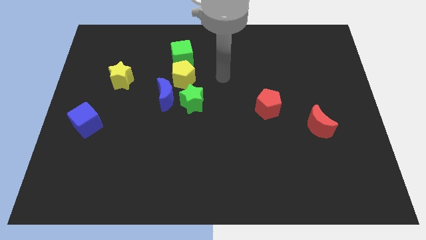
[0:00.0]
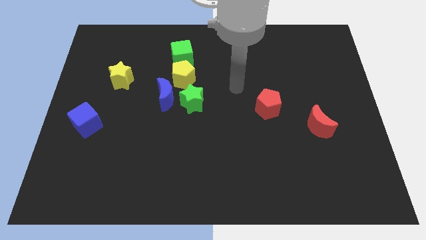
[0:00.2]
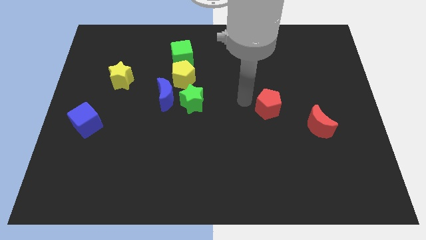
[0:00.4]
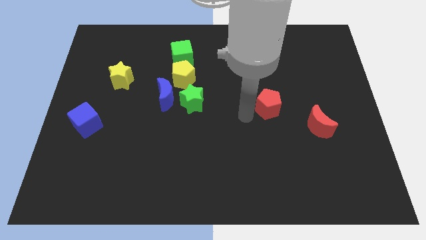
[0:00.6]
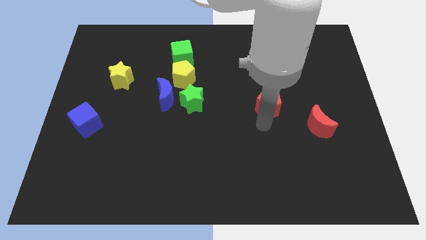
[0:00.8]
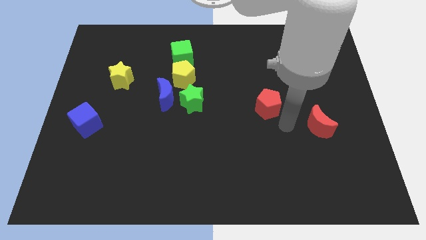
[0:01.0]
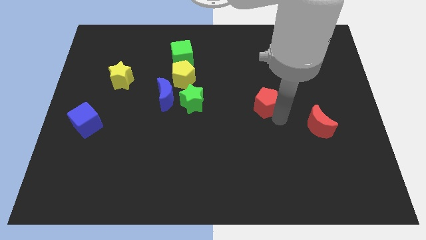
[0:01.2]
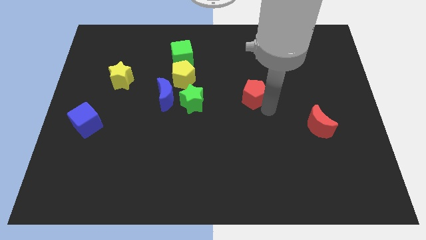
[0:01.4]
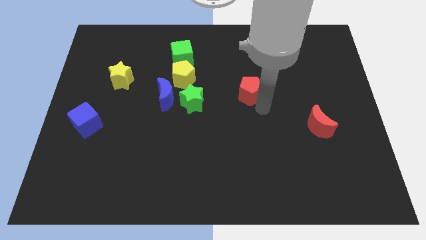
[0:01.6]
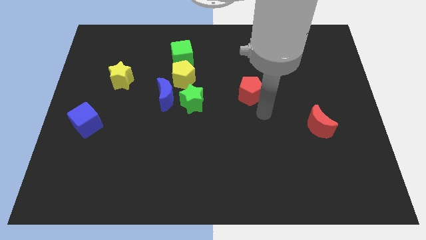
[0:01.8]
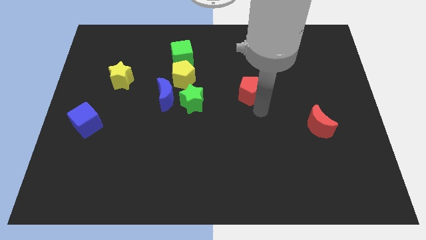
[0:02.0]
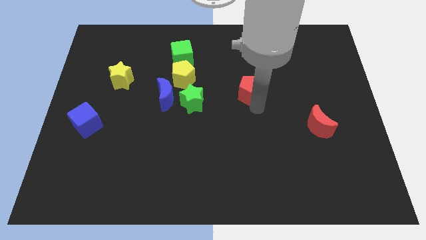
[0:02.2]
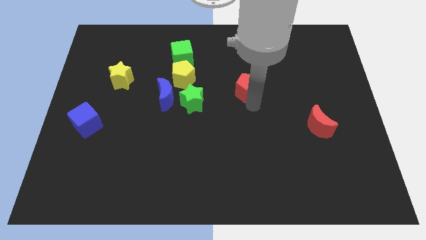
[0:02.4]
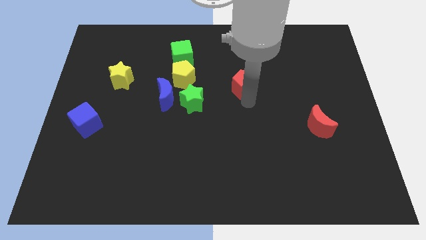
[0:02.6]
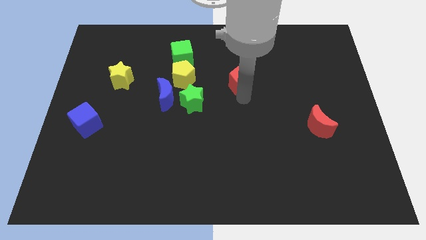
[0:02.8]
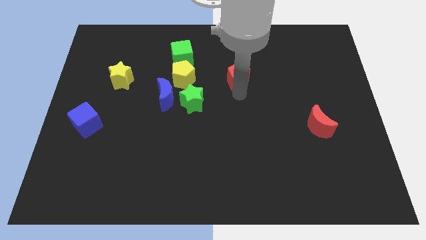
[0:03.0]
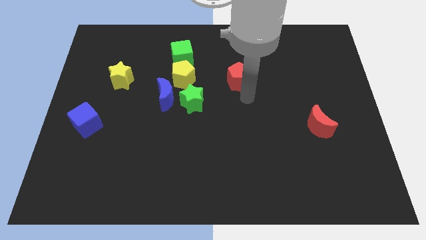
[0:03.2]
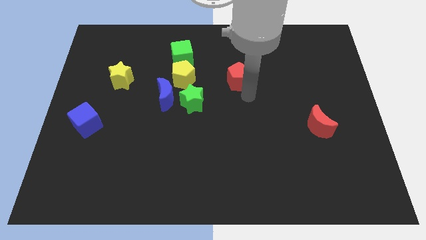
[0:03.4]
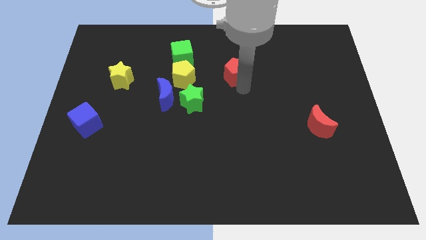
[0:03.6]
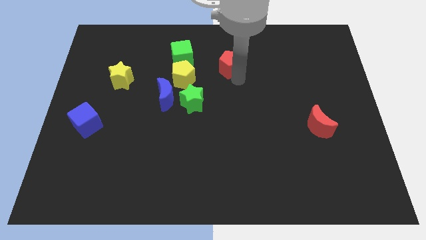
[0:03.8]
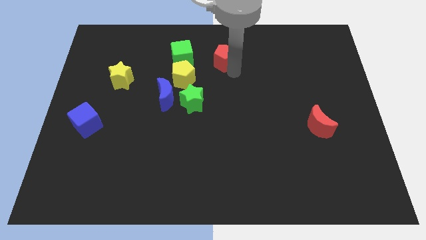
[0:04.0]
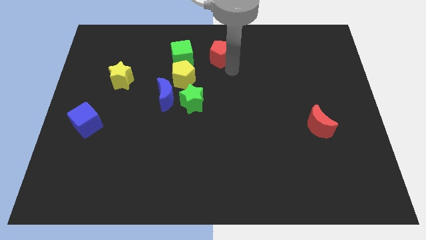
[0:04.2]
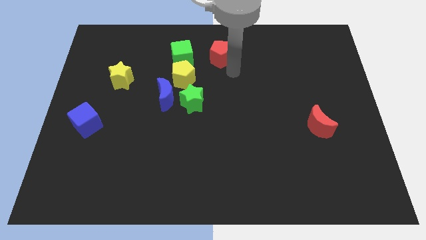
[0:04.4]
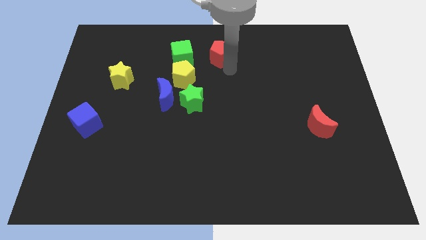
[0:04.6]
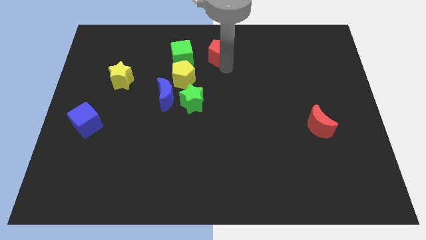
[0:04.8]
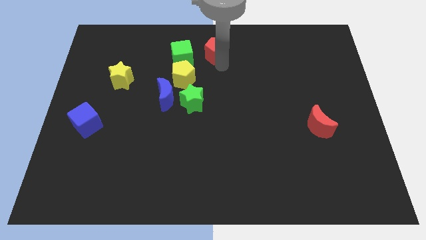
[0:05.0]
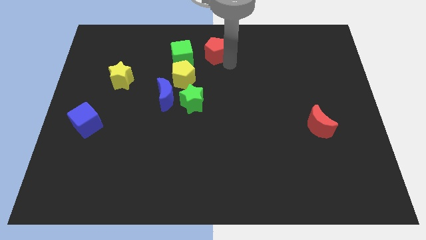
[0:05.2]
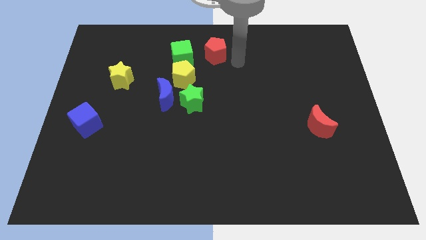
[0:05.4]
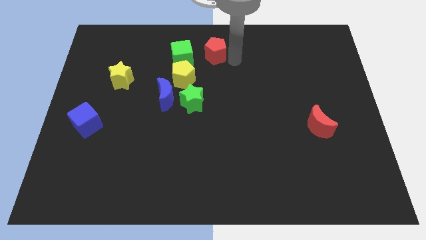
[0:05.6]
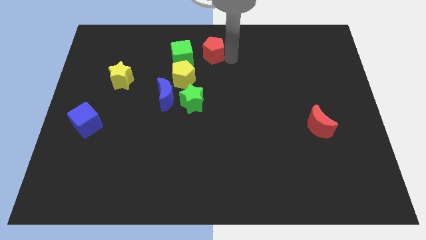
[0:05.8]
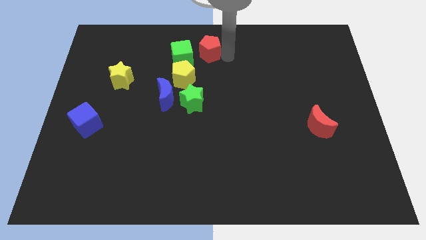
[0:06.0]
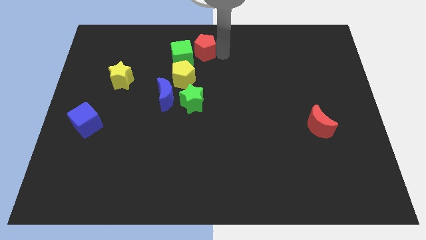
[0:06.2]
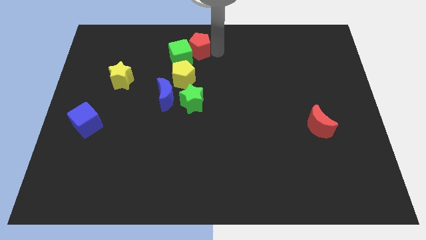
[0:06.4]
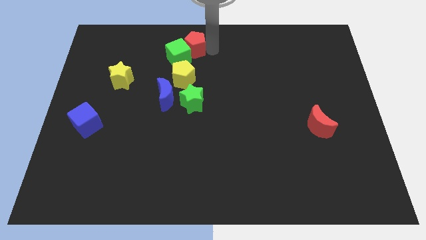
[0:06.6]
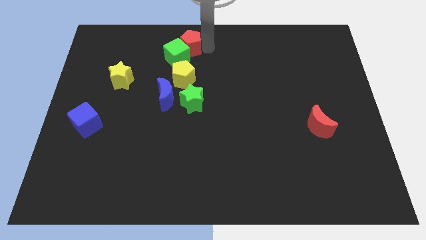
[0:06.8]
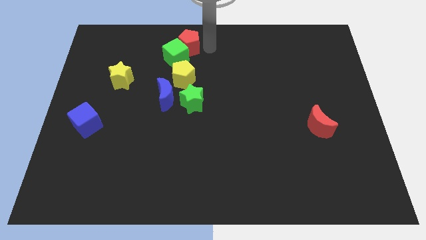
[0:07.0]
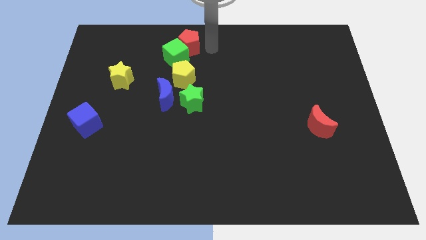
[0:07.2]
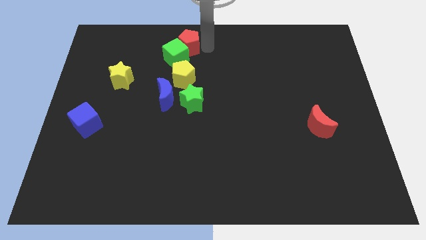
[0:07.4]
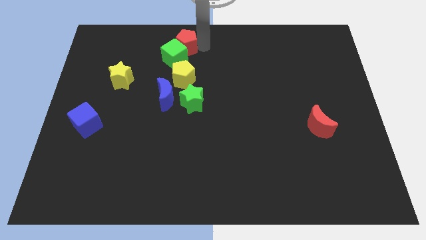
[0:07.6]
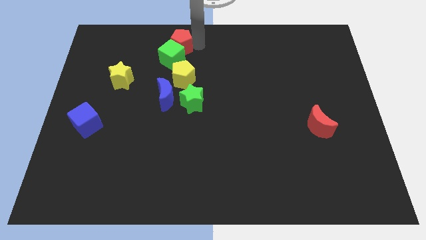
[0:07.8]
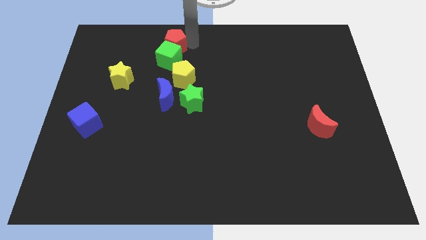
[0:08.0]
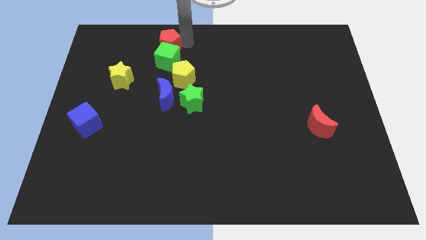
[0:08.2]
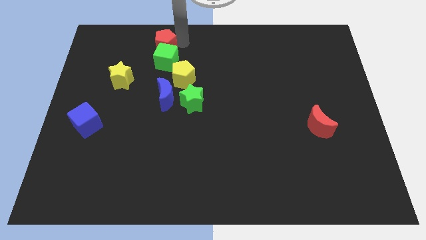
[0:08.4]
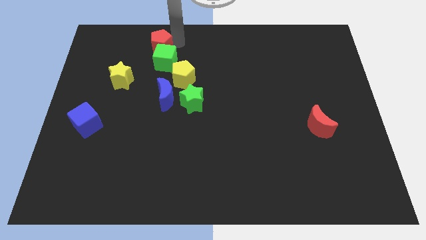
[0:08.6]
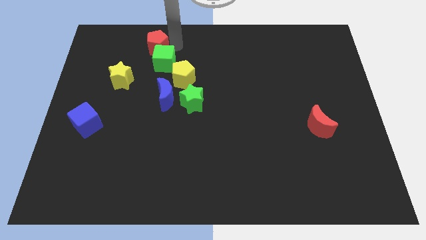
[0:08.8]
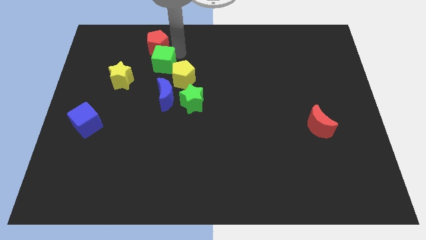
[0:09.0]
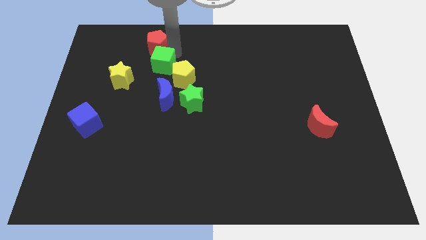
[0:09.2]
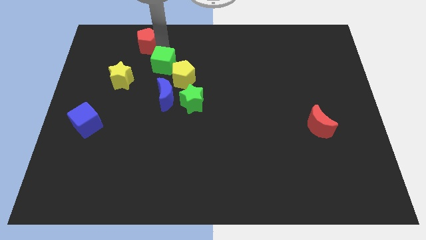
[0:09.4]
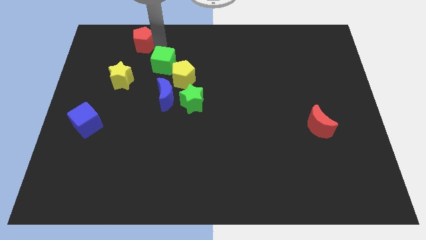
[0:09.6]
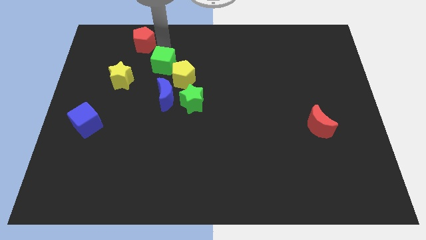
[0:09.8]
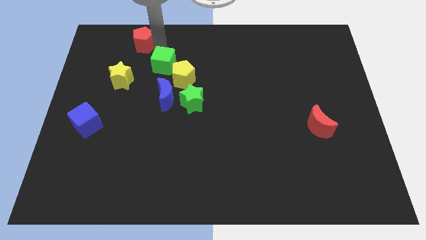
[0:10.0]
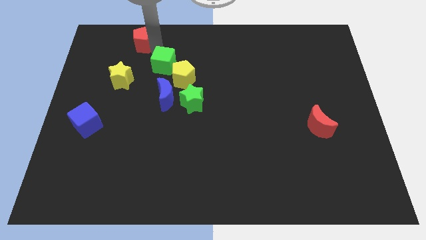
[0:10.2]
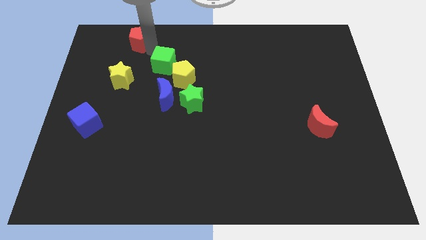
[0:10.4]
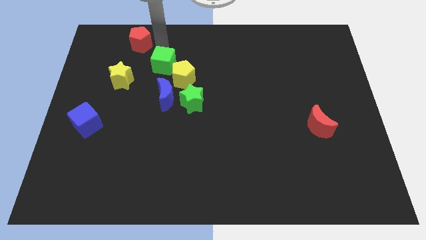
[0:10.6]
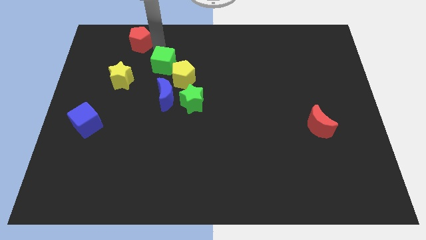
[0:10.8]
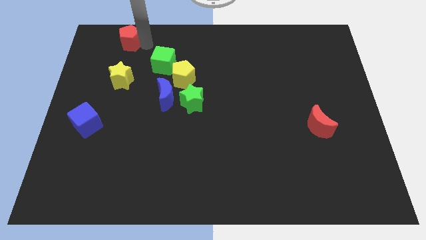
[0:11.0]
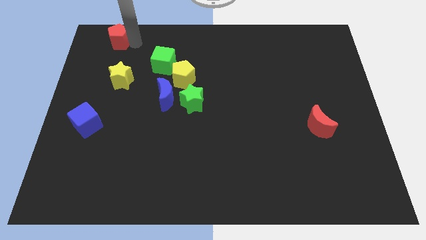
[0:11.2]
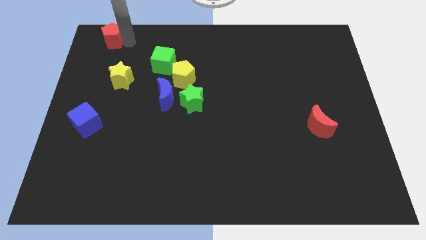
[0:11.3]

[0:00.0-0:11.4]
move the red pentagon to the upper left corner

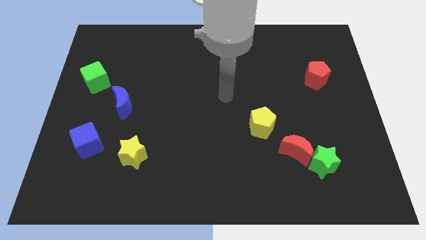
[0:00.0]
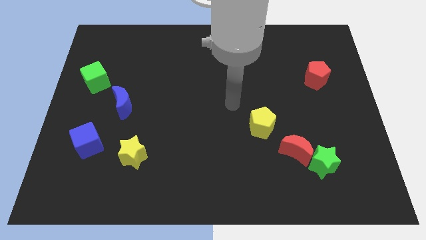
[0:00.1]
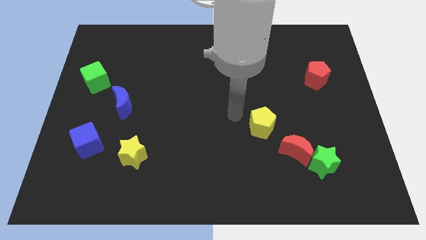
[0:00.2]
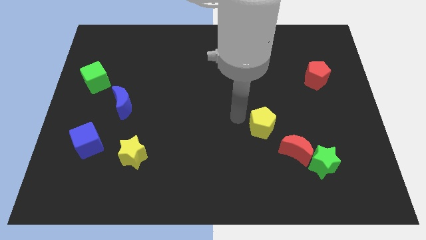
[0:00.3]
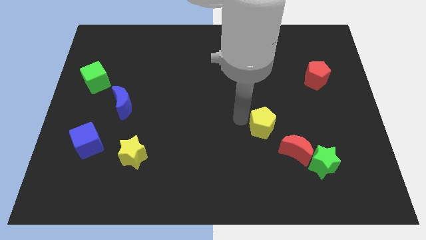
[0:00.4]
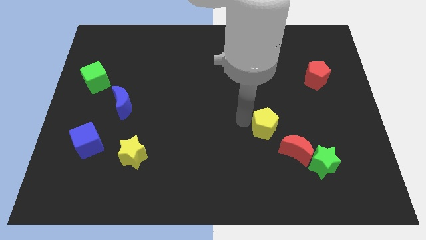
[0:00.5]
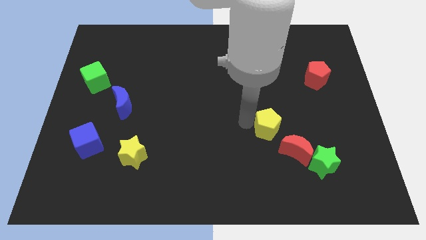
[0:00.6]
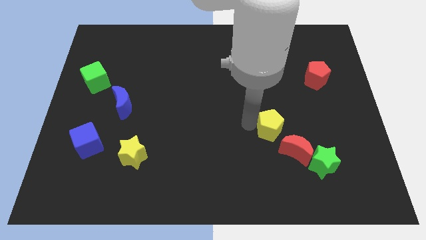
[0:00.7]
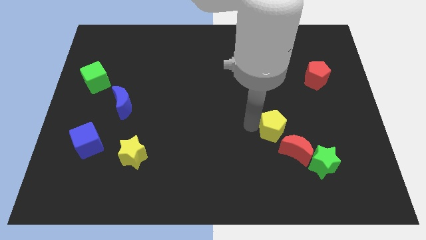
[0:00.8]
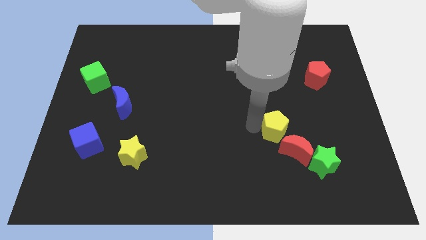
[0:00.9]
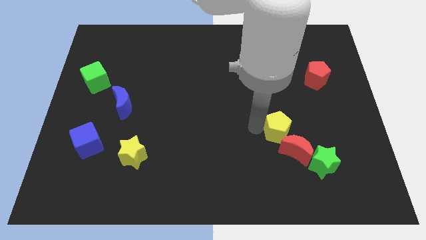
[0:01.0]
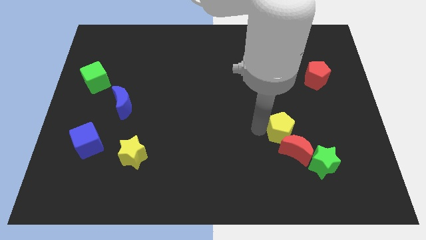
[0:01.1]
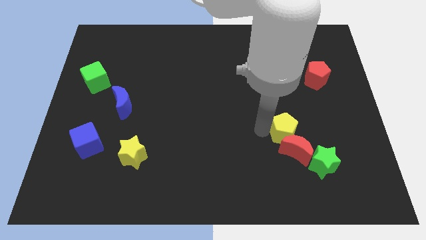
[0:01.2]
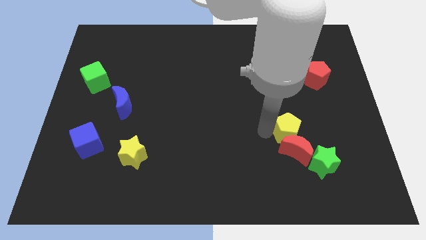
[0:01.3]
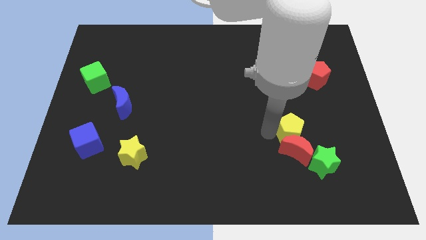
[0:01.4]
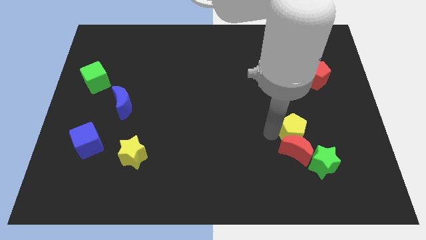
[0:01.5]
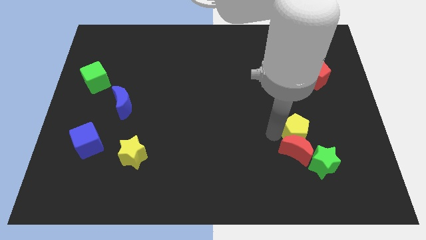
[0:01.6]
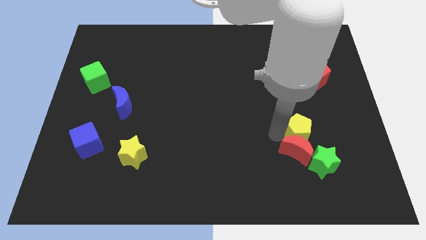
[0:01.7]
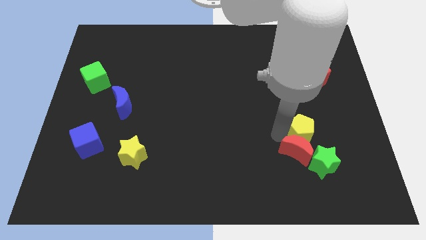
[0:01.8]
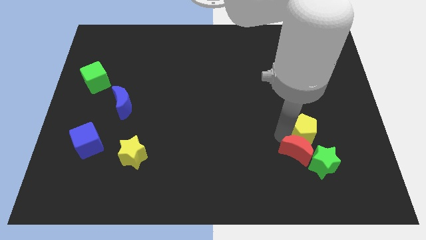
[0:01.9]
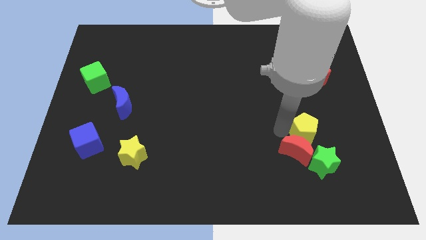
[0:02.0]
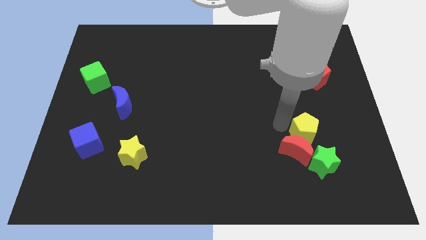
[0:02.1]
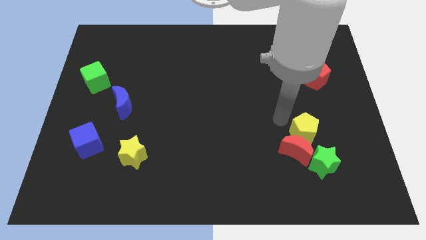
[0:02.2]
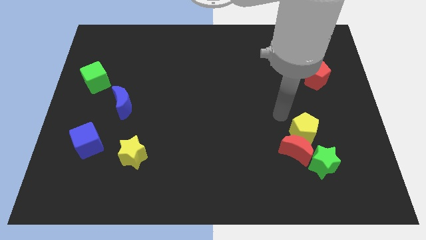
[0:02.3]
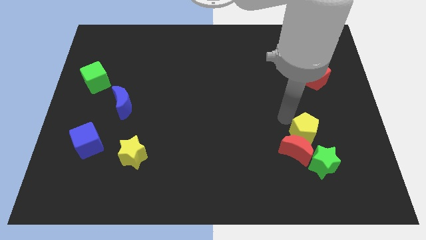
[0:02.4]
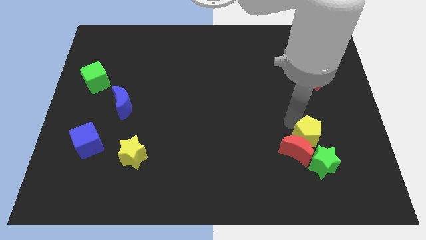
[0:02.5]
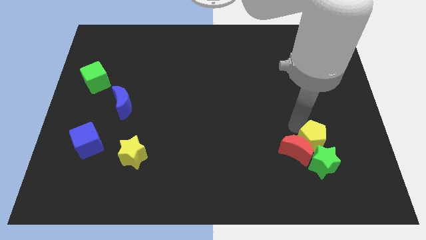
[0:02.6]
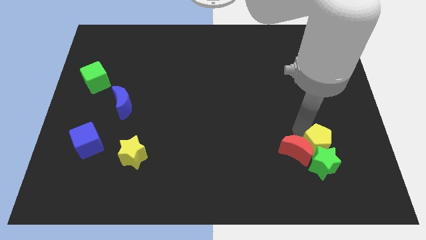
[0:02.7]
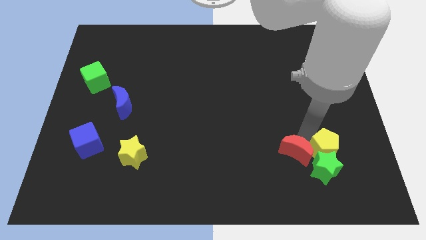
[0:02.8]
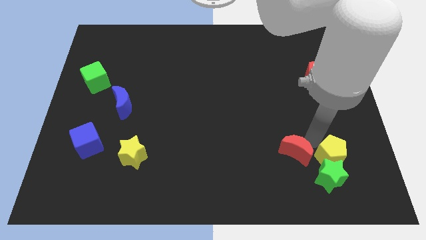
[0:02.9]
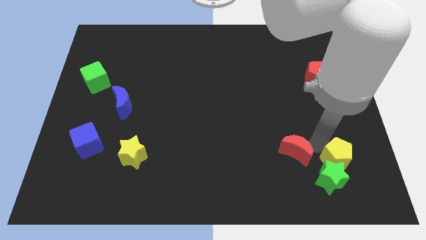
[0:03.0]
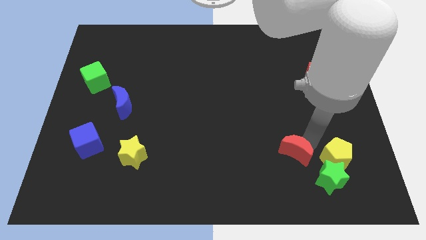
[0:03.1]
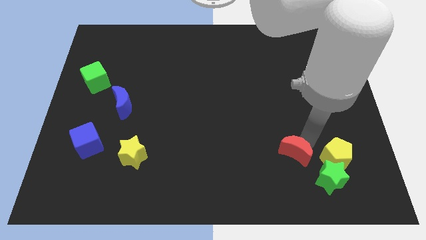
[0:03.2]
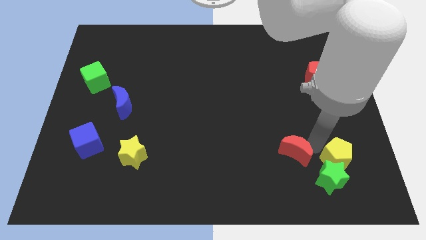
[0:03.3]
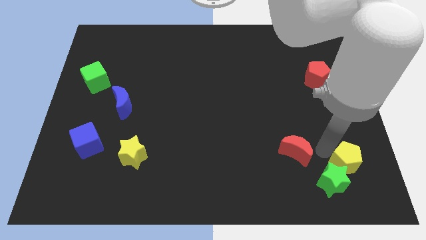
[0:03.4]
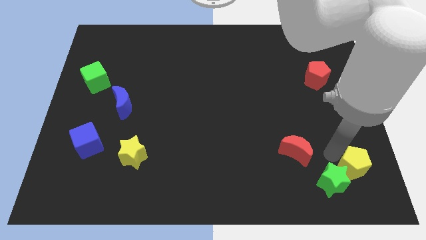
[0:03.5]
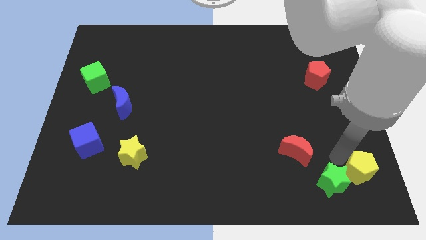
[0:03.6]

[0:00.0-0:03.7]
move the yellow pentagon to the lower right corner
